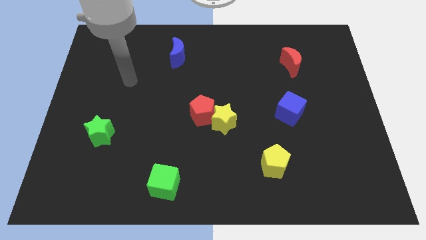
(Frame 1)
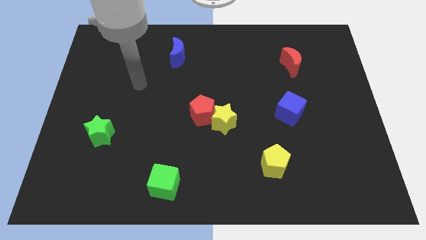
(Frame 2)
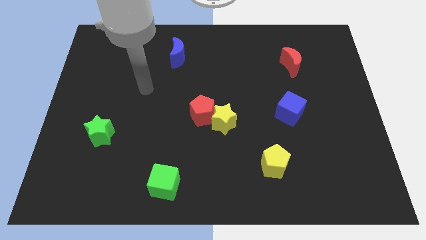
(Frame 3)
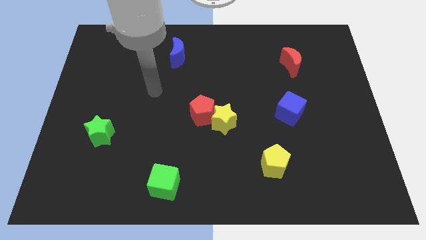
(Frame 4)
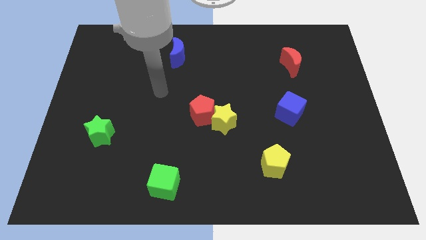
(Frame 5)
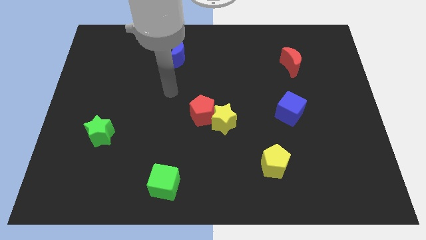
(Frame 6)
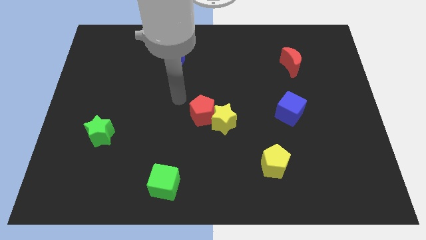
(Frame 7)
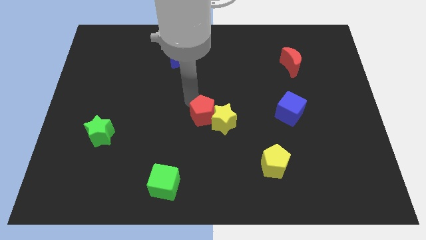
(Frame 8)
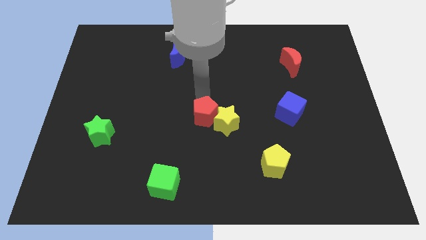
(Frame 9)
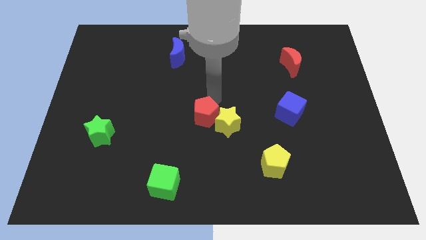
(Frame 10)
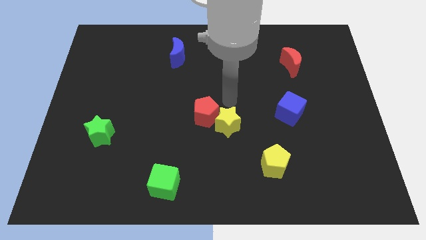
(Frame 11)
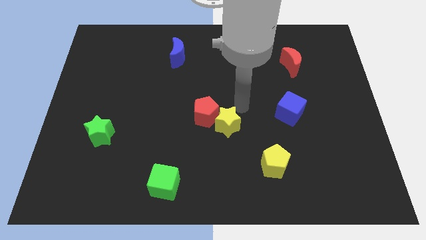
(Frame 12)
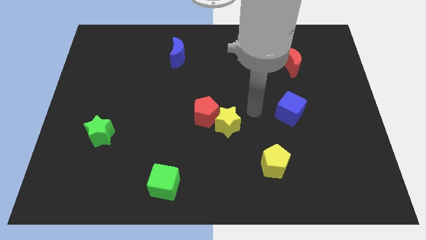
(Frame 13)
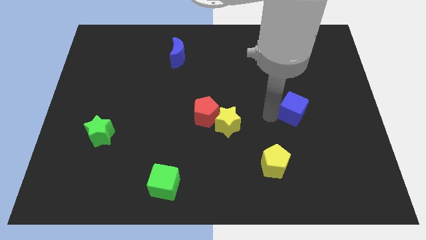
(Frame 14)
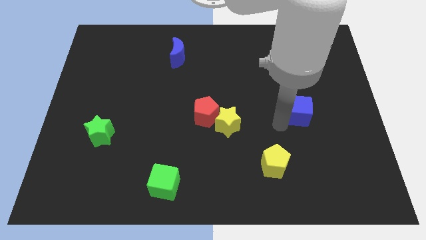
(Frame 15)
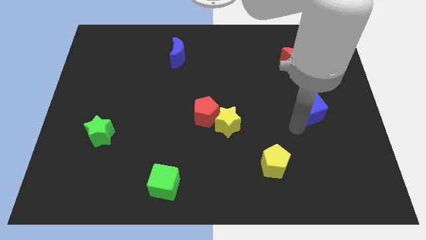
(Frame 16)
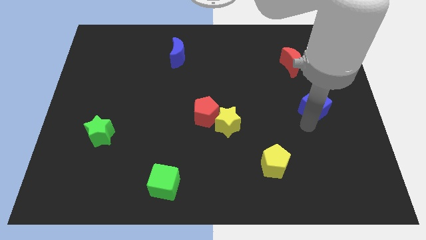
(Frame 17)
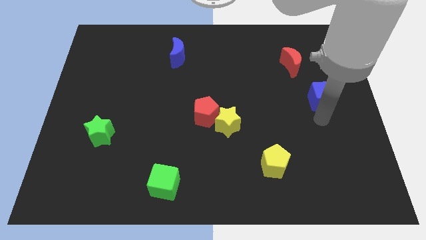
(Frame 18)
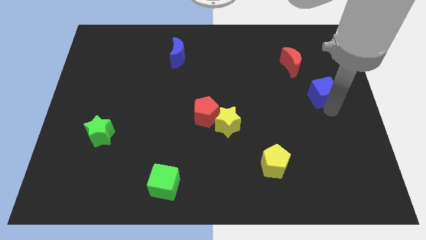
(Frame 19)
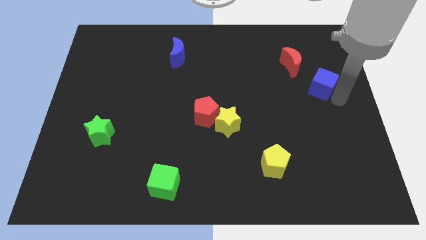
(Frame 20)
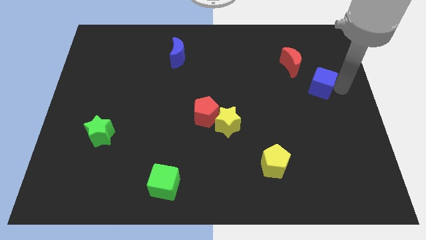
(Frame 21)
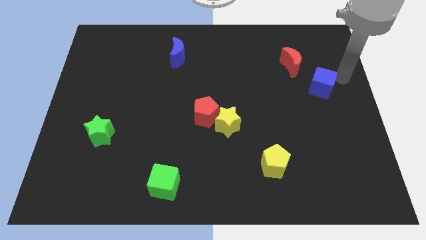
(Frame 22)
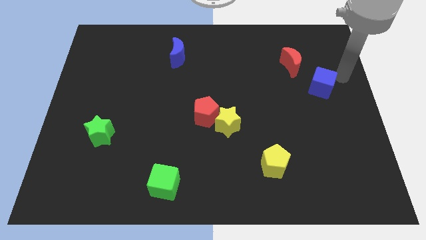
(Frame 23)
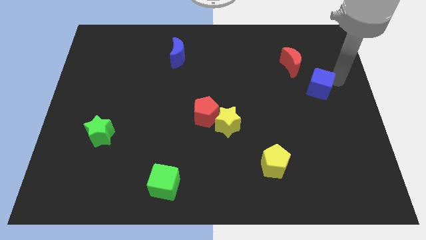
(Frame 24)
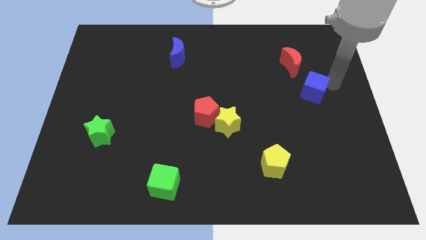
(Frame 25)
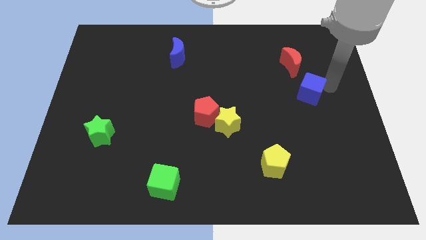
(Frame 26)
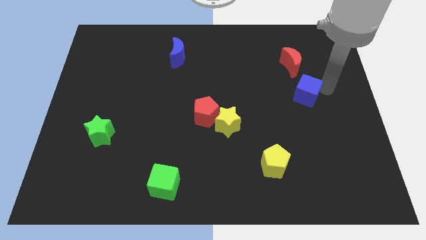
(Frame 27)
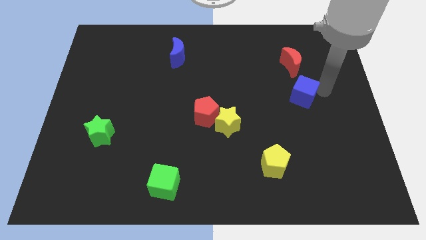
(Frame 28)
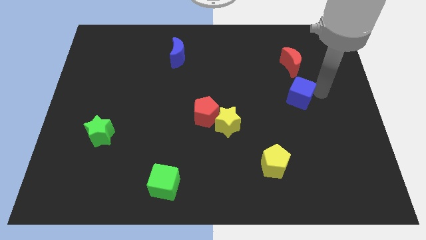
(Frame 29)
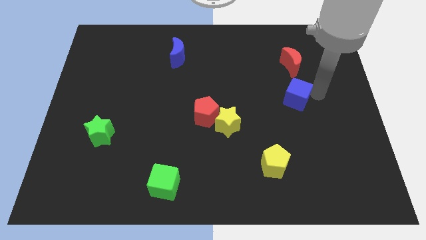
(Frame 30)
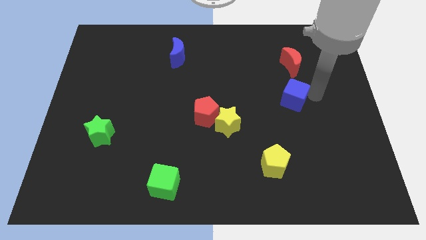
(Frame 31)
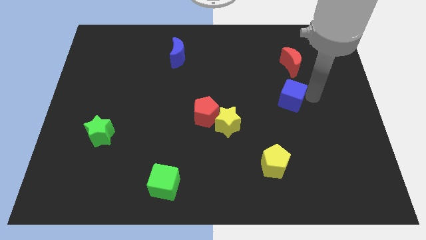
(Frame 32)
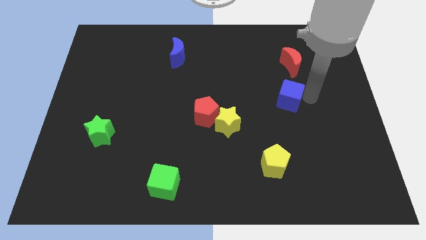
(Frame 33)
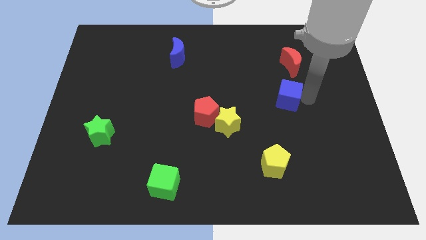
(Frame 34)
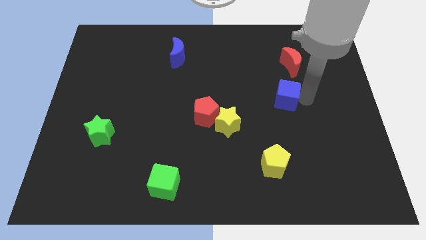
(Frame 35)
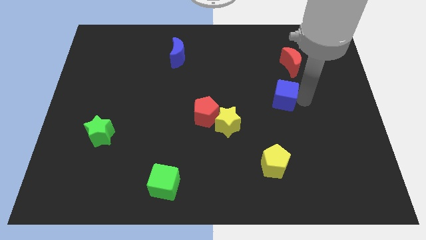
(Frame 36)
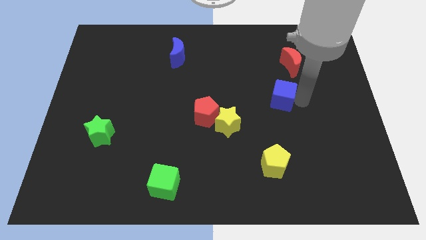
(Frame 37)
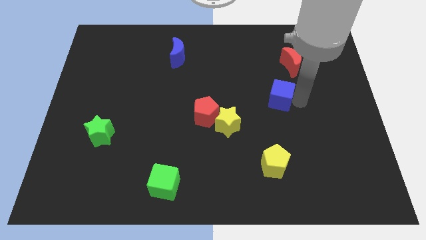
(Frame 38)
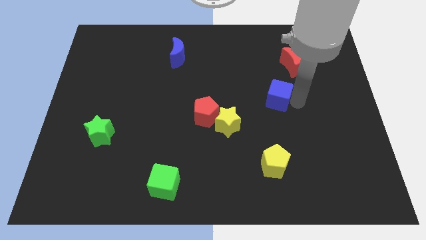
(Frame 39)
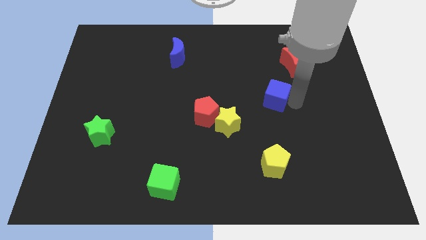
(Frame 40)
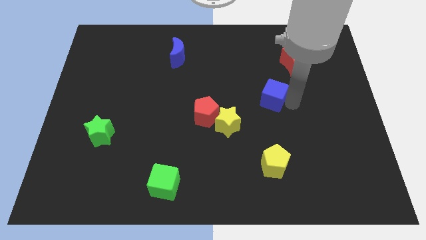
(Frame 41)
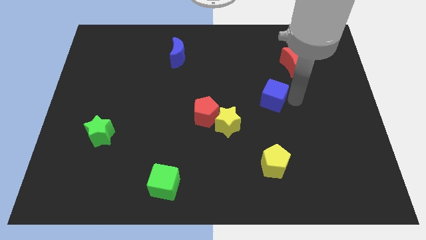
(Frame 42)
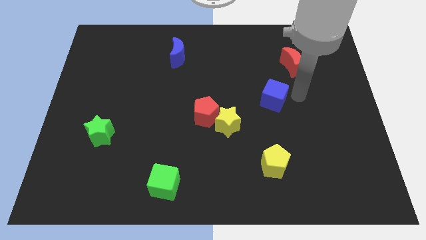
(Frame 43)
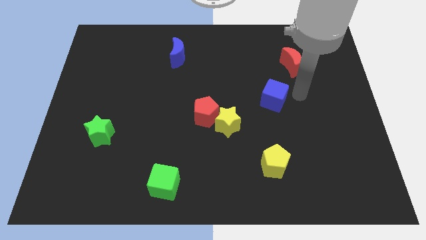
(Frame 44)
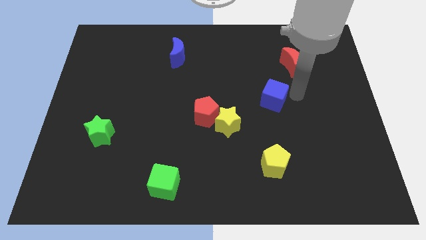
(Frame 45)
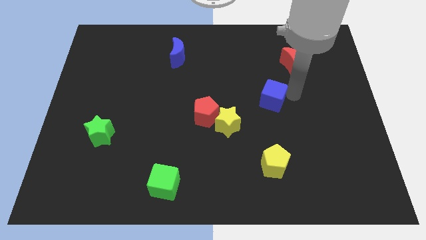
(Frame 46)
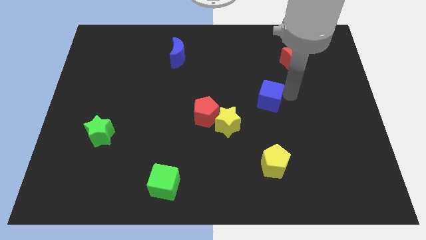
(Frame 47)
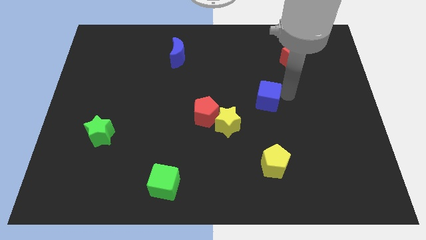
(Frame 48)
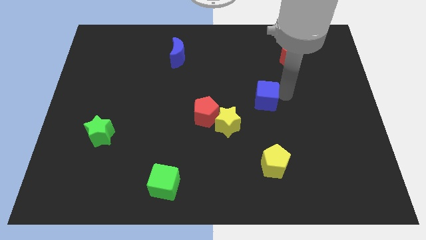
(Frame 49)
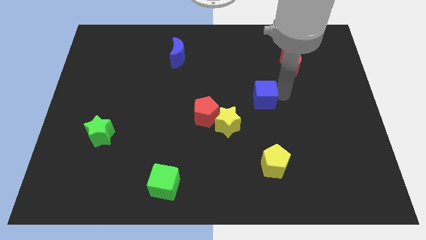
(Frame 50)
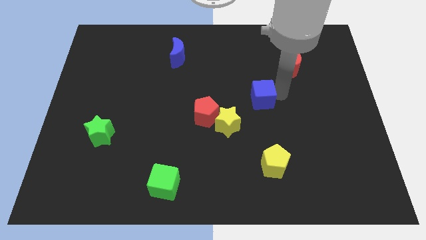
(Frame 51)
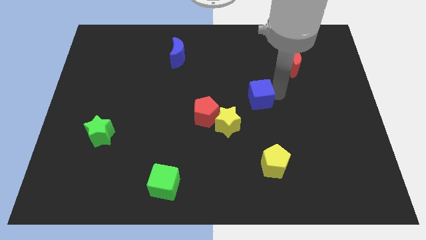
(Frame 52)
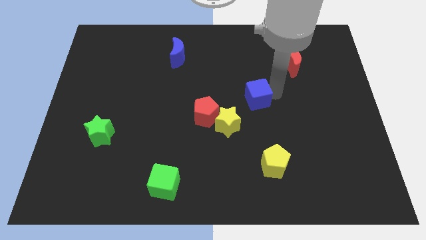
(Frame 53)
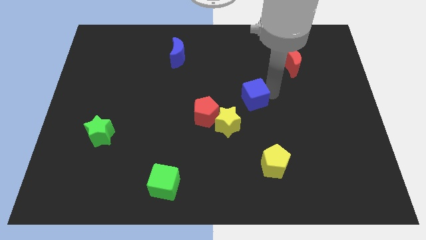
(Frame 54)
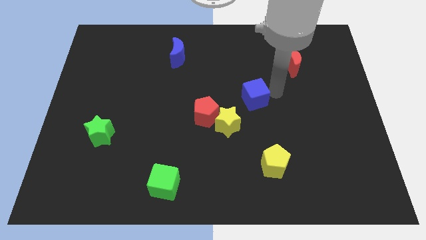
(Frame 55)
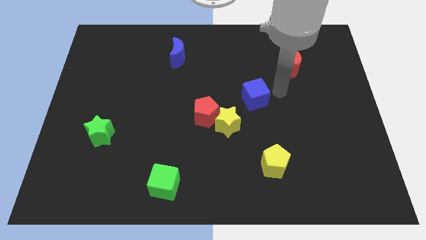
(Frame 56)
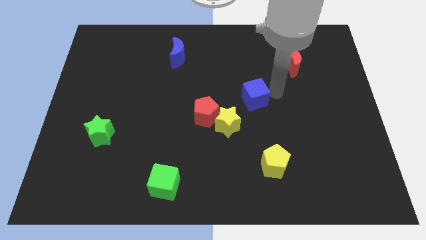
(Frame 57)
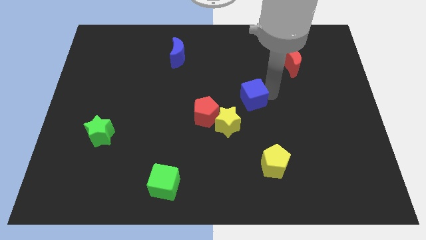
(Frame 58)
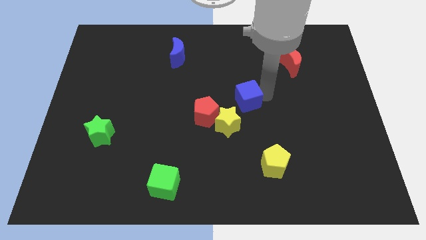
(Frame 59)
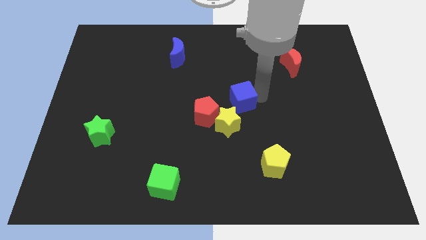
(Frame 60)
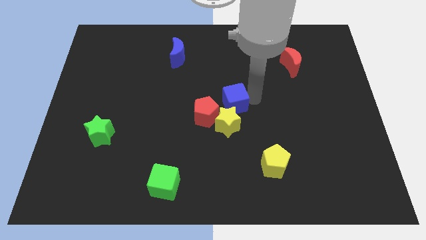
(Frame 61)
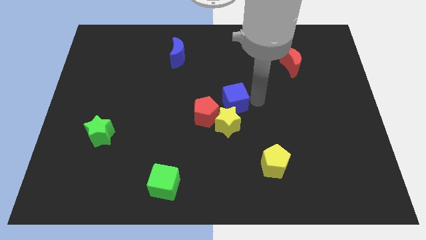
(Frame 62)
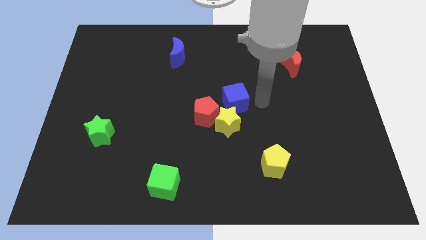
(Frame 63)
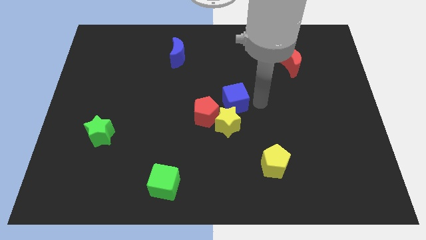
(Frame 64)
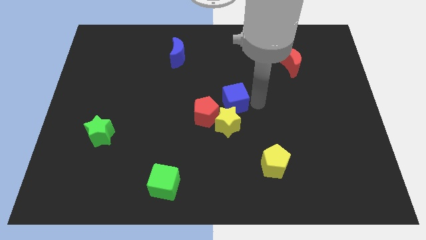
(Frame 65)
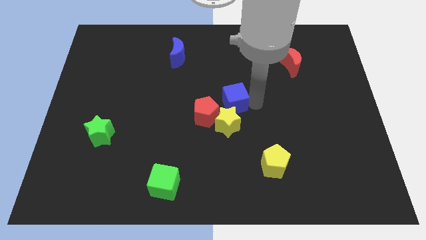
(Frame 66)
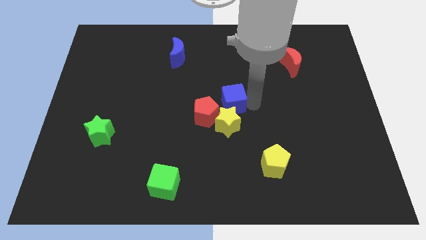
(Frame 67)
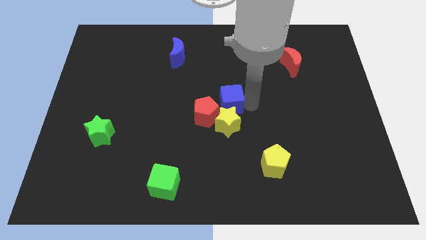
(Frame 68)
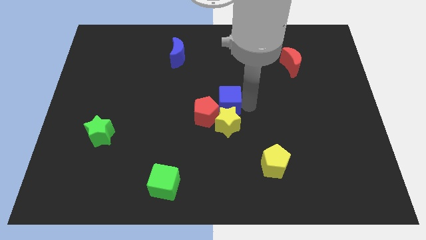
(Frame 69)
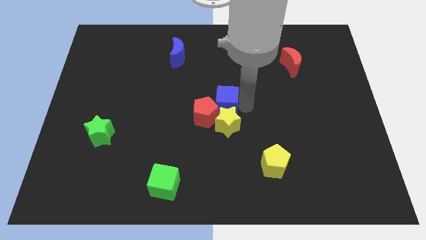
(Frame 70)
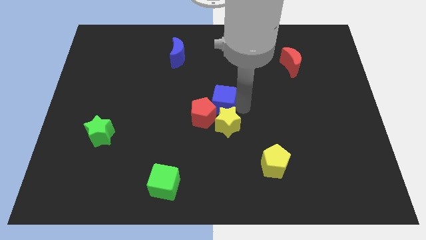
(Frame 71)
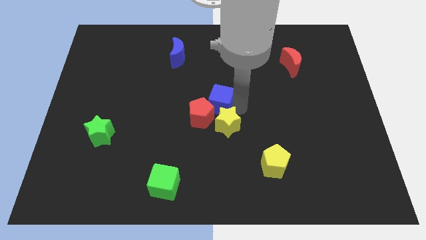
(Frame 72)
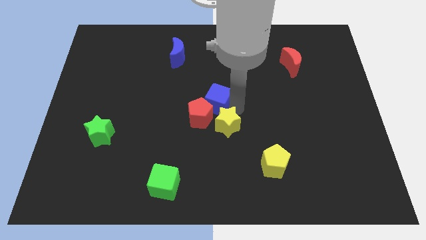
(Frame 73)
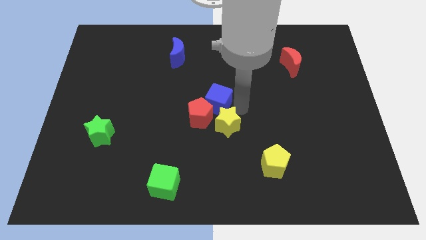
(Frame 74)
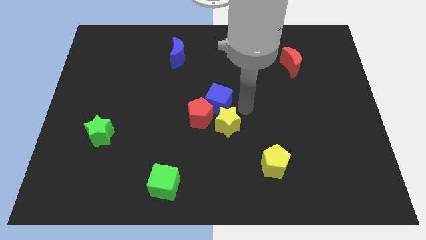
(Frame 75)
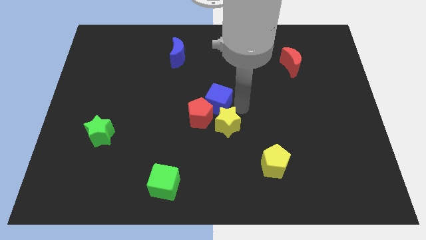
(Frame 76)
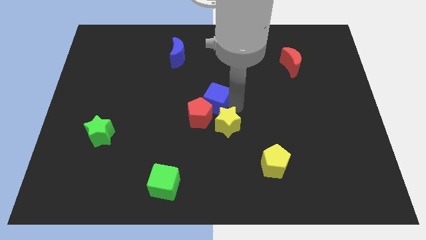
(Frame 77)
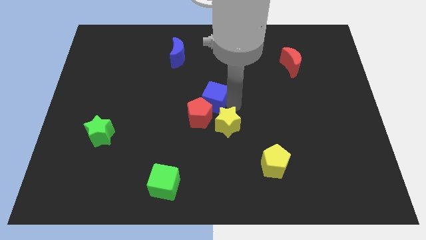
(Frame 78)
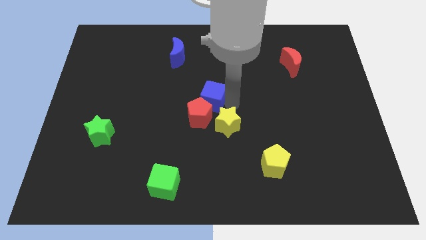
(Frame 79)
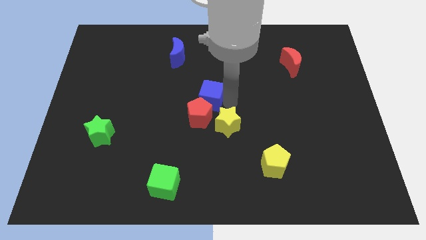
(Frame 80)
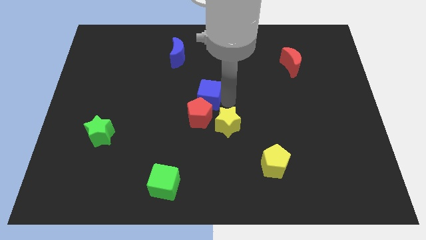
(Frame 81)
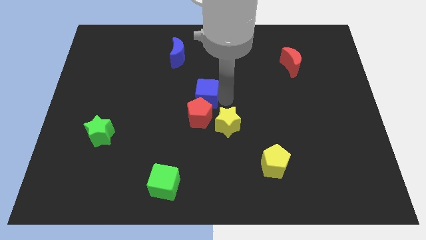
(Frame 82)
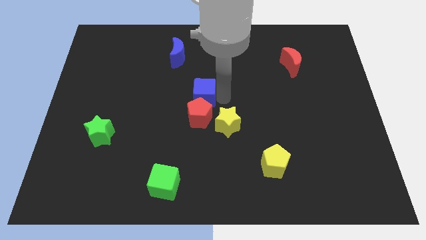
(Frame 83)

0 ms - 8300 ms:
move the blue cube to the top left side of the red pentagon
